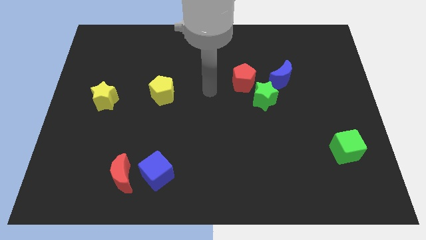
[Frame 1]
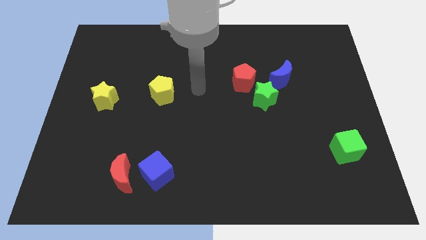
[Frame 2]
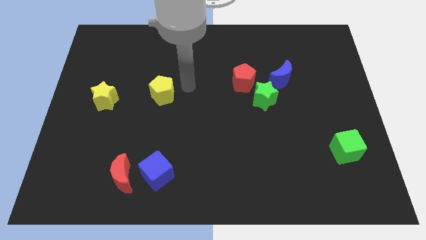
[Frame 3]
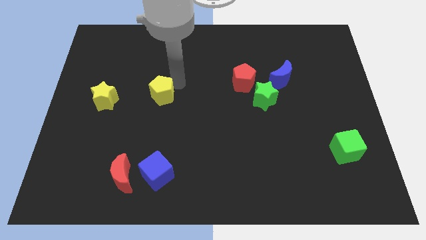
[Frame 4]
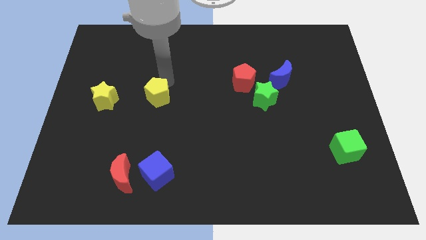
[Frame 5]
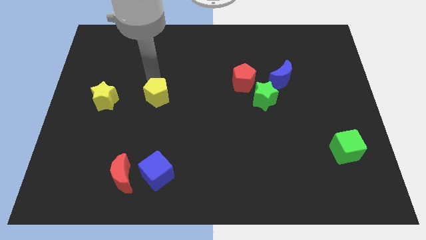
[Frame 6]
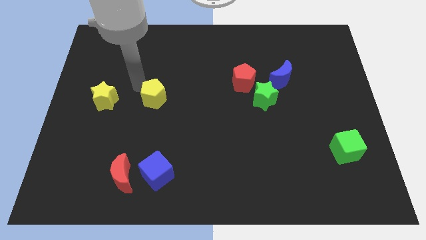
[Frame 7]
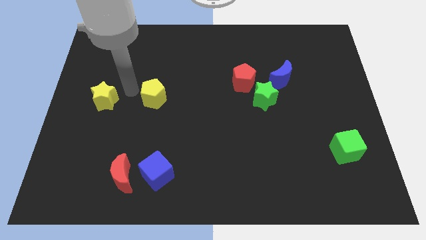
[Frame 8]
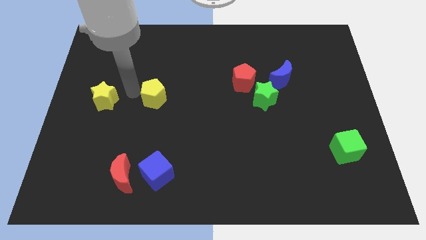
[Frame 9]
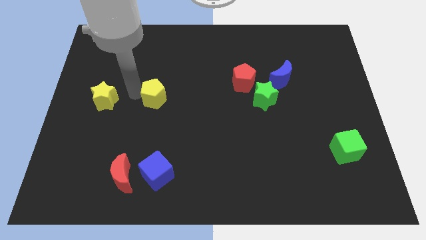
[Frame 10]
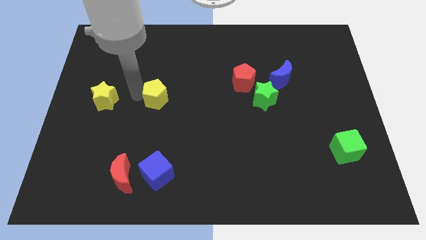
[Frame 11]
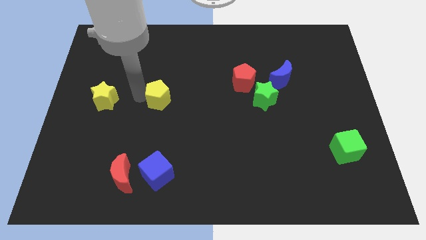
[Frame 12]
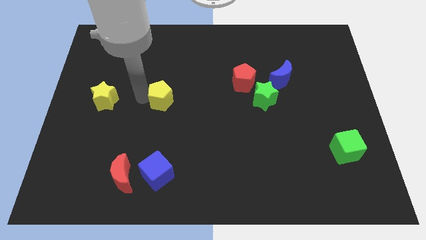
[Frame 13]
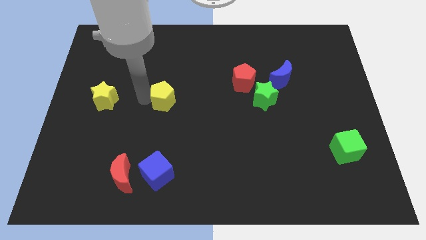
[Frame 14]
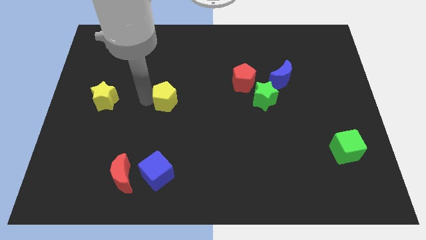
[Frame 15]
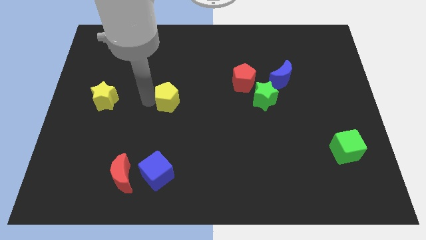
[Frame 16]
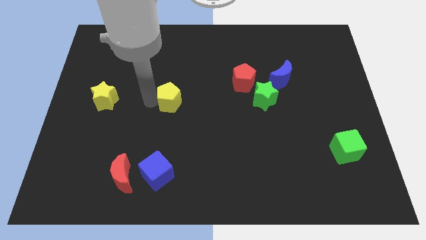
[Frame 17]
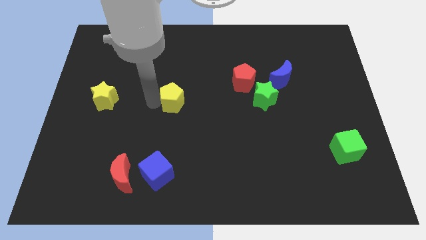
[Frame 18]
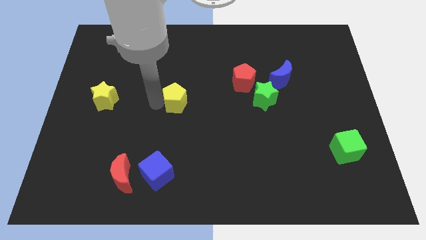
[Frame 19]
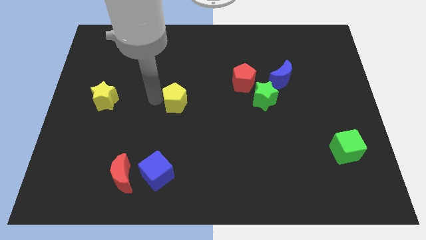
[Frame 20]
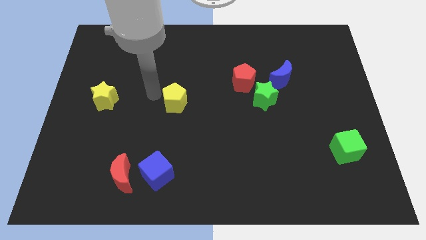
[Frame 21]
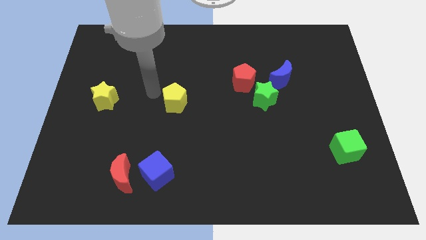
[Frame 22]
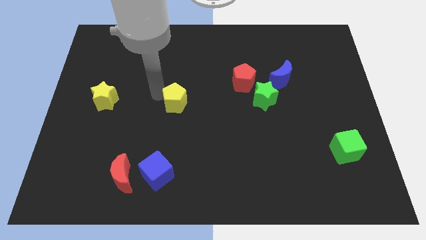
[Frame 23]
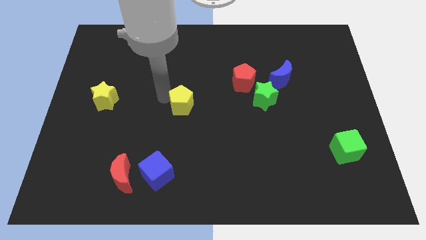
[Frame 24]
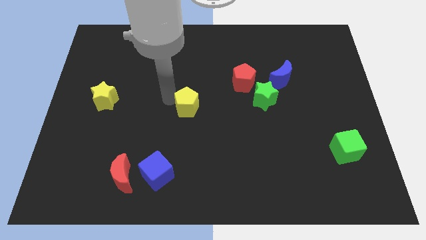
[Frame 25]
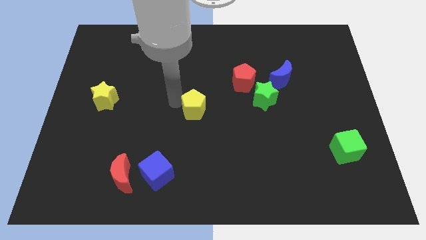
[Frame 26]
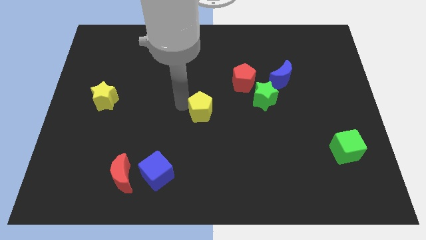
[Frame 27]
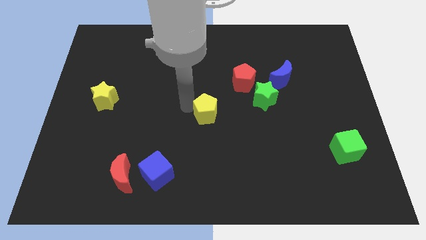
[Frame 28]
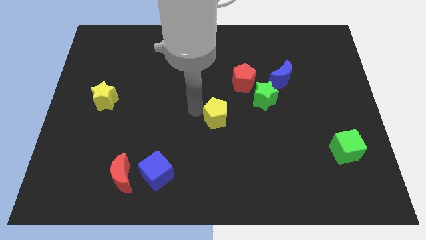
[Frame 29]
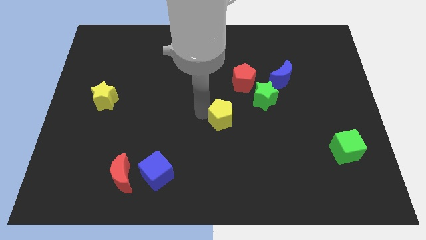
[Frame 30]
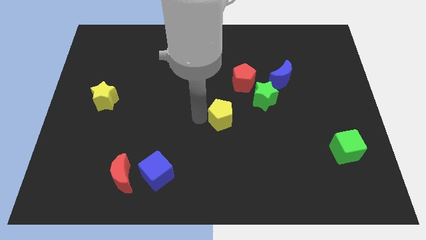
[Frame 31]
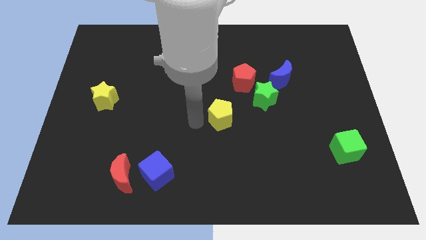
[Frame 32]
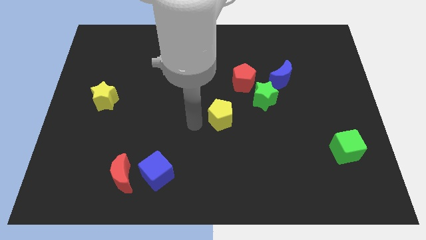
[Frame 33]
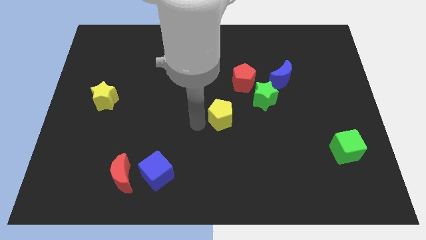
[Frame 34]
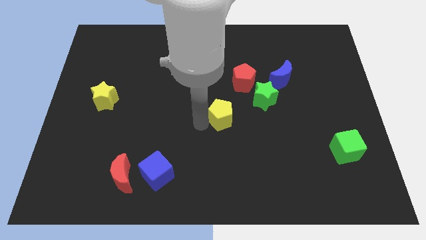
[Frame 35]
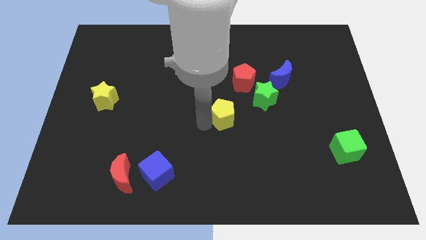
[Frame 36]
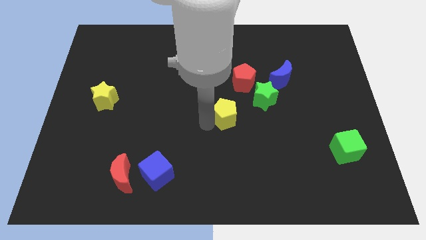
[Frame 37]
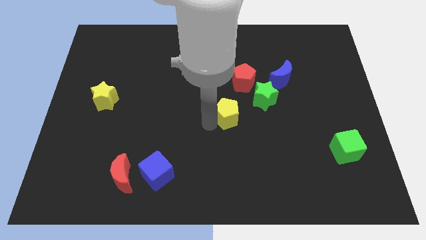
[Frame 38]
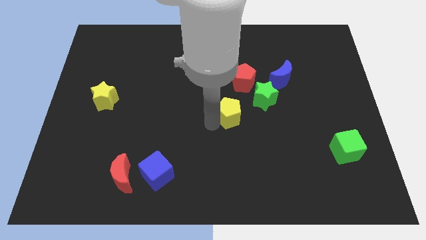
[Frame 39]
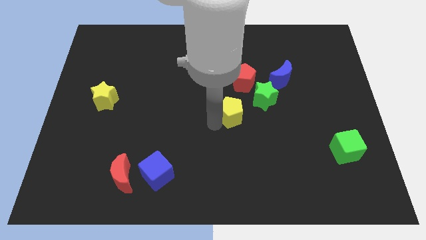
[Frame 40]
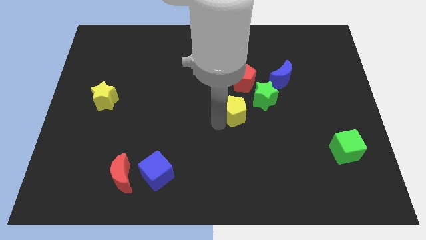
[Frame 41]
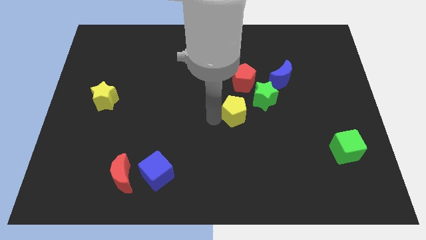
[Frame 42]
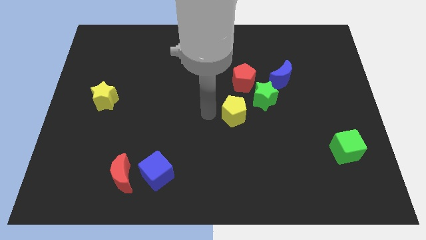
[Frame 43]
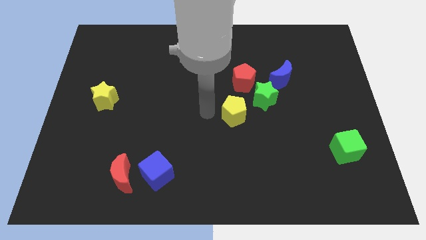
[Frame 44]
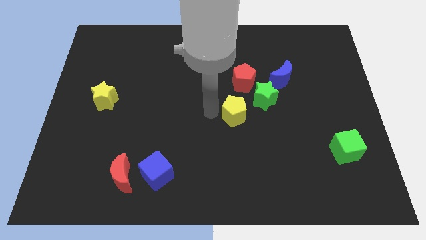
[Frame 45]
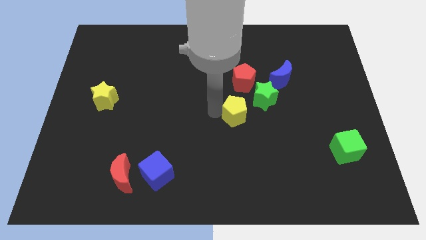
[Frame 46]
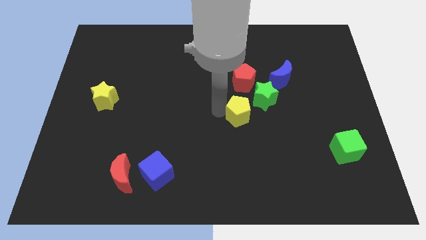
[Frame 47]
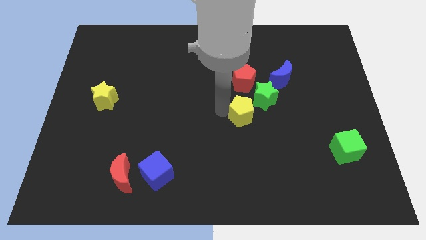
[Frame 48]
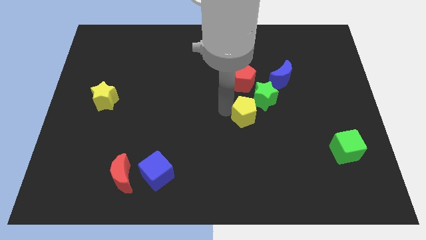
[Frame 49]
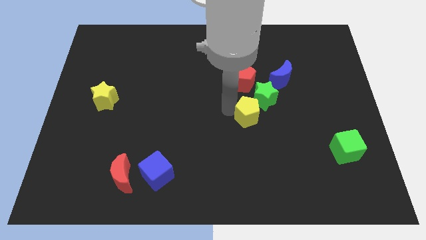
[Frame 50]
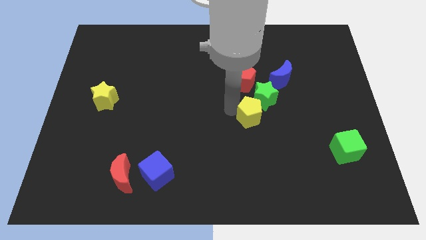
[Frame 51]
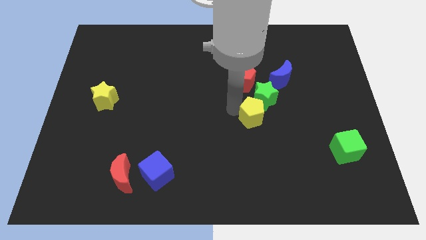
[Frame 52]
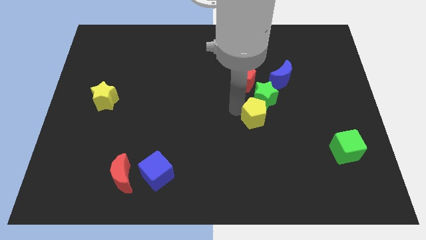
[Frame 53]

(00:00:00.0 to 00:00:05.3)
push the yellow pentagon to the right

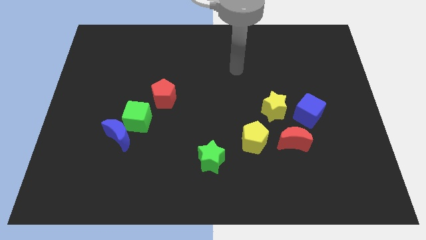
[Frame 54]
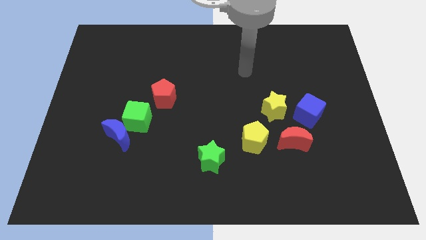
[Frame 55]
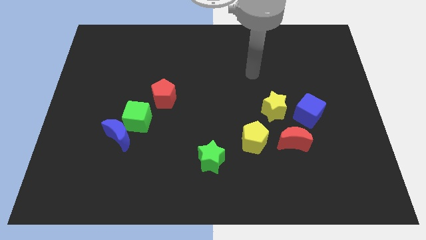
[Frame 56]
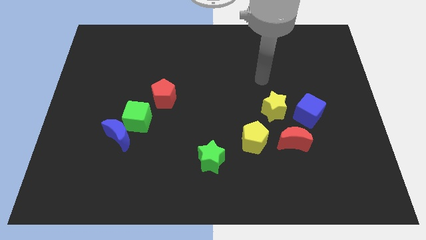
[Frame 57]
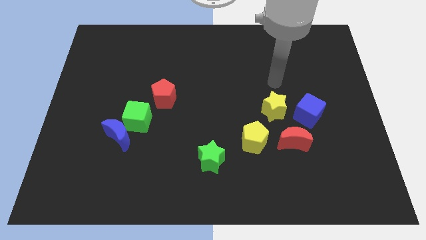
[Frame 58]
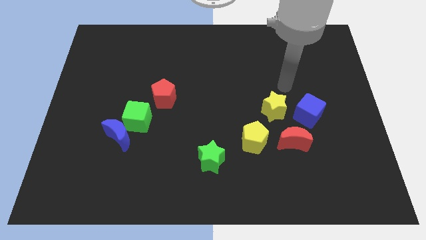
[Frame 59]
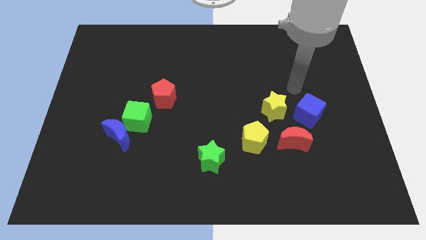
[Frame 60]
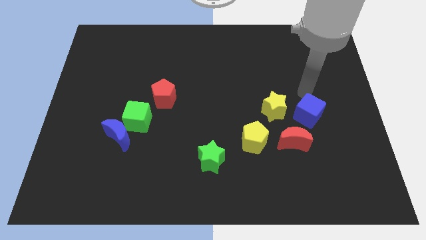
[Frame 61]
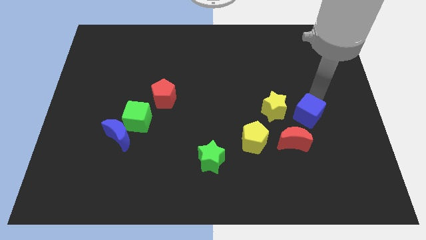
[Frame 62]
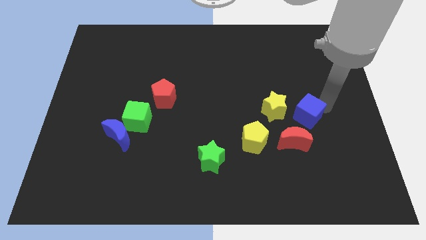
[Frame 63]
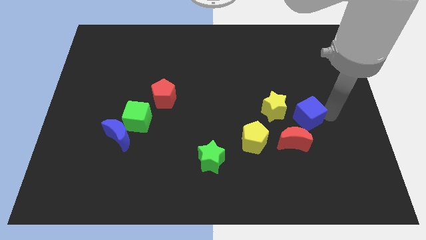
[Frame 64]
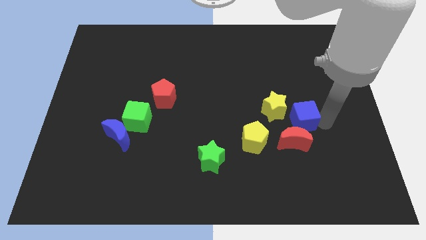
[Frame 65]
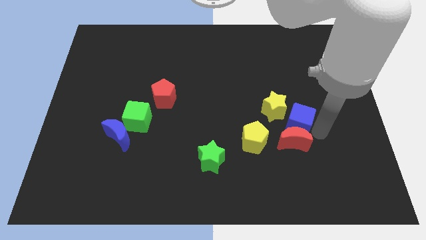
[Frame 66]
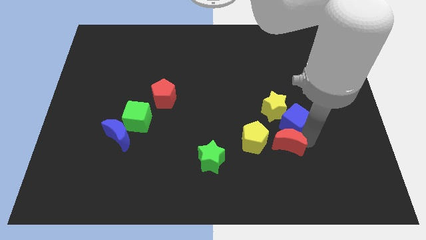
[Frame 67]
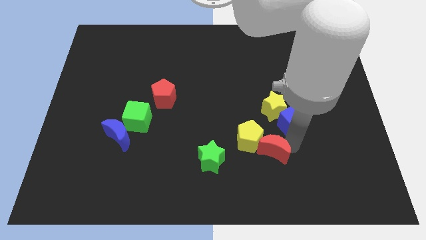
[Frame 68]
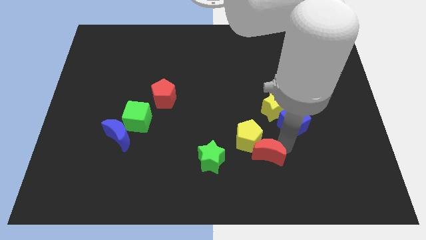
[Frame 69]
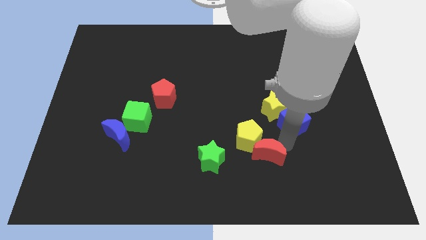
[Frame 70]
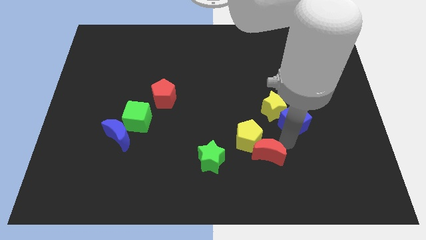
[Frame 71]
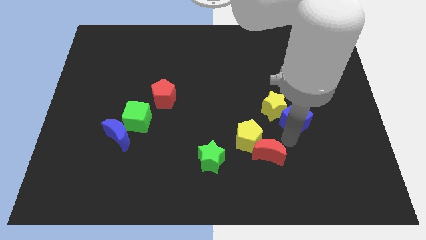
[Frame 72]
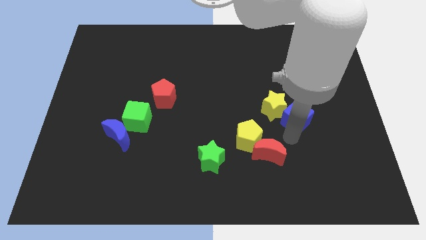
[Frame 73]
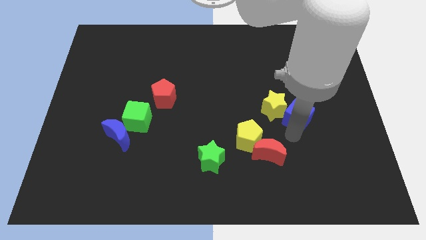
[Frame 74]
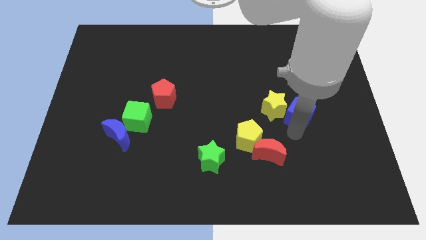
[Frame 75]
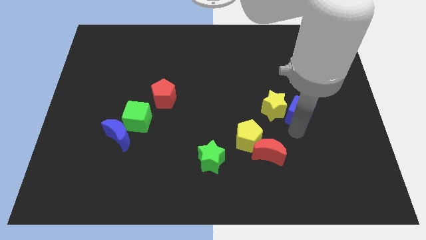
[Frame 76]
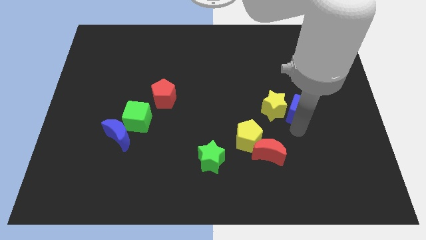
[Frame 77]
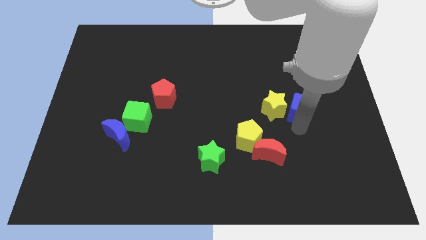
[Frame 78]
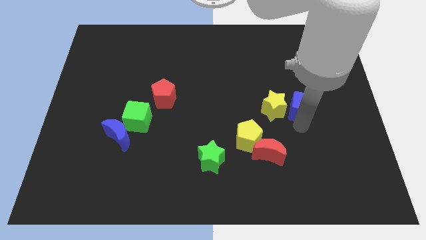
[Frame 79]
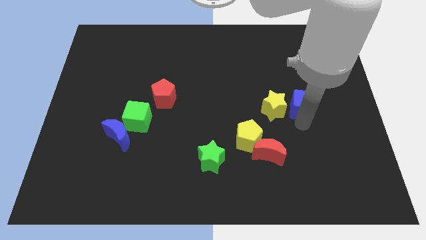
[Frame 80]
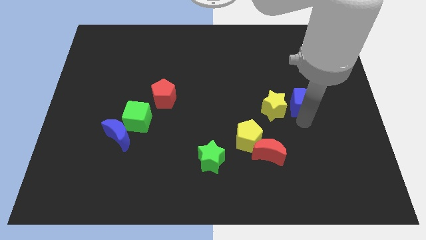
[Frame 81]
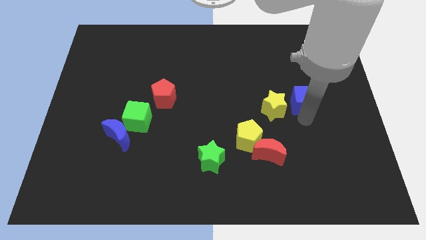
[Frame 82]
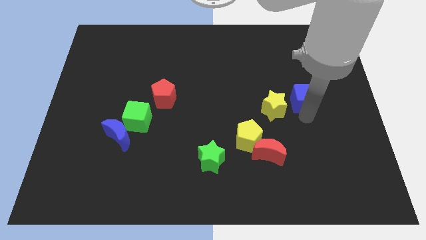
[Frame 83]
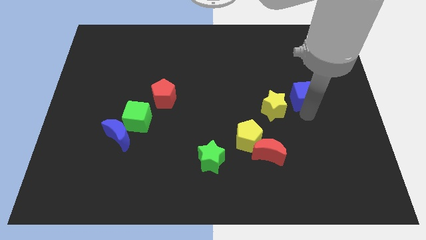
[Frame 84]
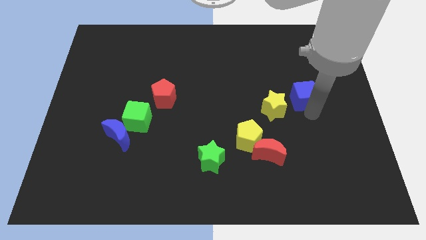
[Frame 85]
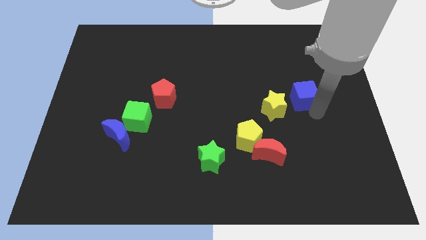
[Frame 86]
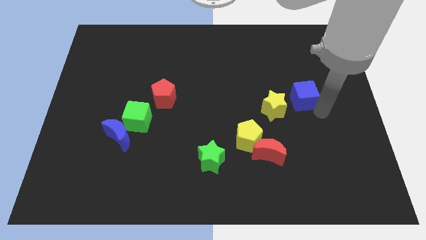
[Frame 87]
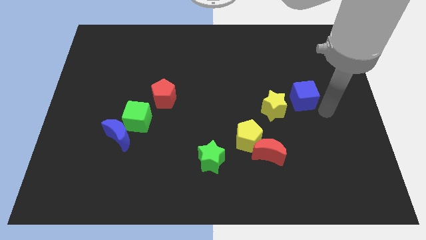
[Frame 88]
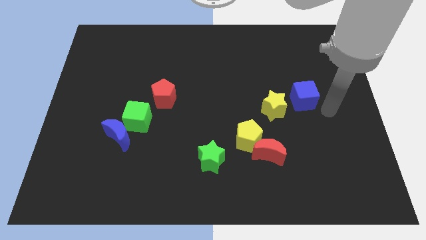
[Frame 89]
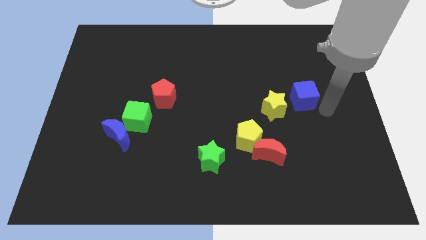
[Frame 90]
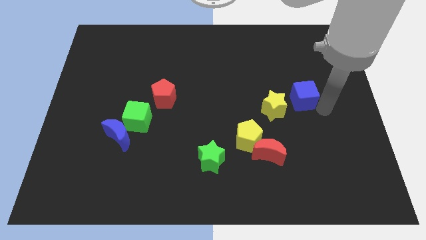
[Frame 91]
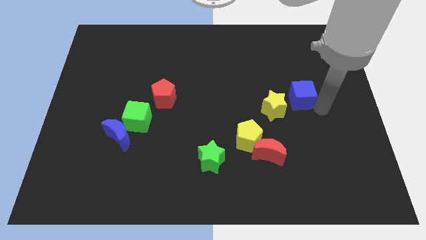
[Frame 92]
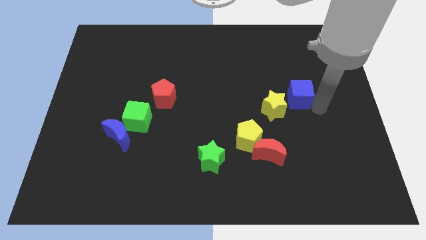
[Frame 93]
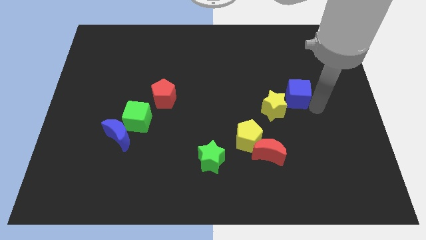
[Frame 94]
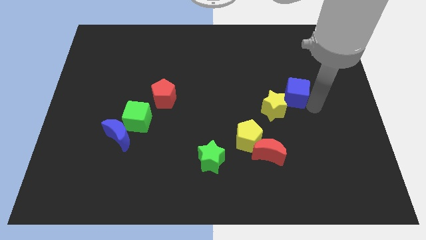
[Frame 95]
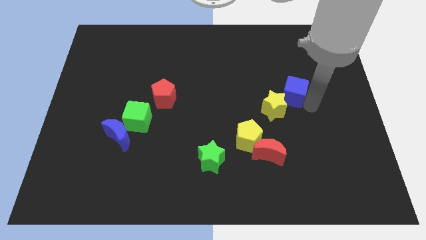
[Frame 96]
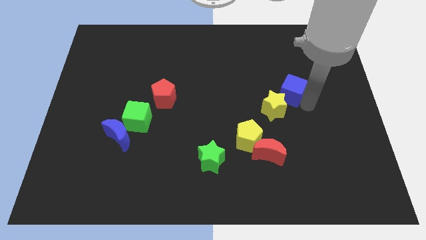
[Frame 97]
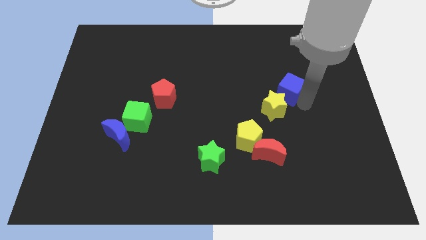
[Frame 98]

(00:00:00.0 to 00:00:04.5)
slide the blue cube somewhat diagonally upwards and to the left
